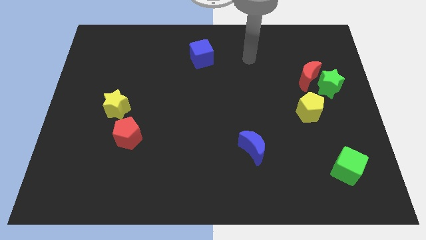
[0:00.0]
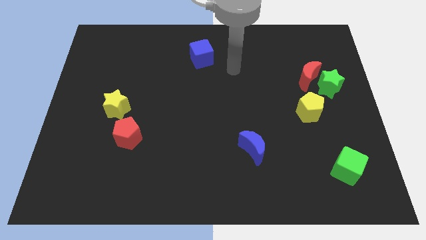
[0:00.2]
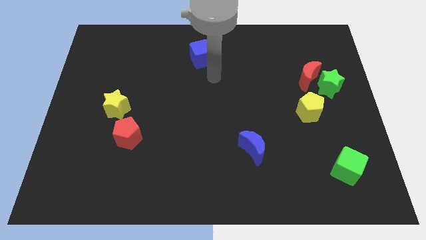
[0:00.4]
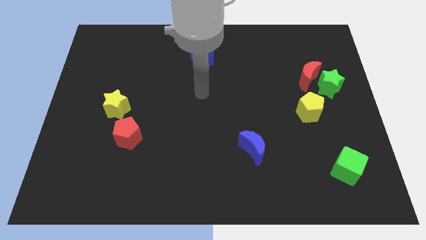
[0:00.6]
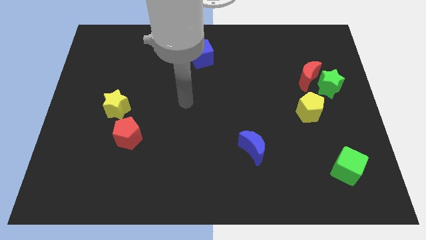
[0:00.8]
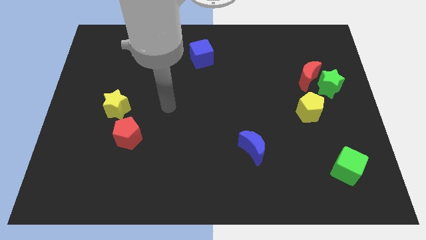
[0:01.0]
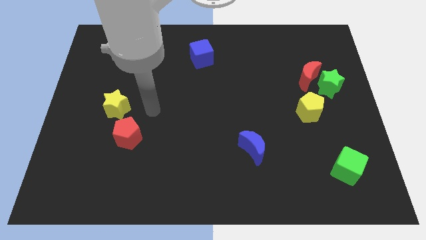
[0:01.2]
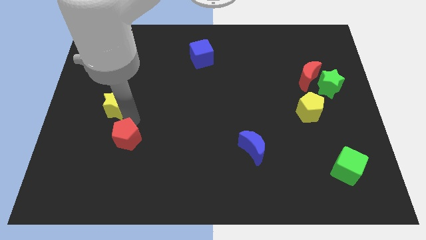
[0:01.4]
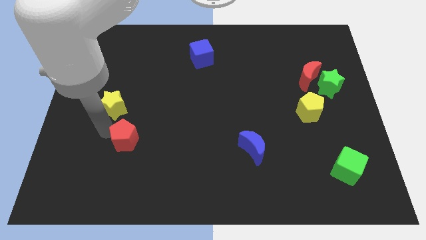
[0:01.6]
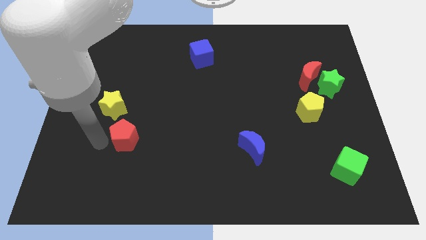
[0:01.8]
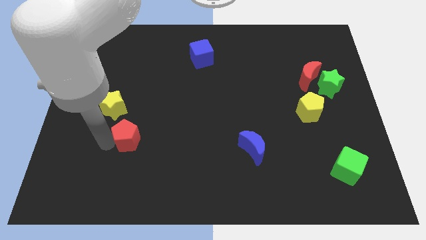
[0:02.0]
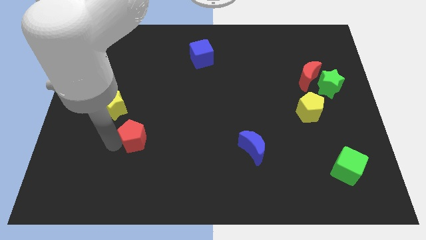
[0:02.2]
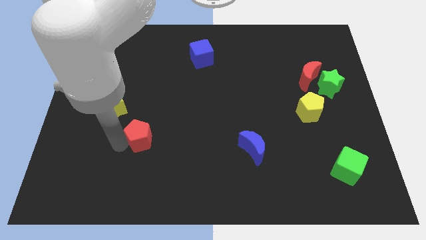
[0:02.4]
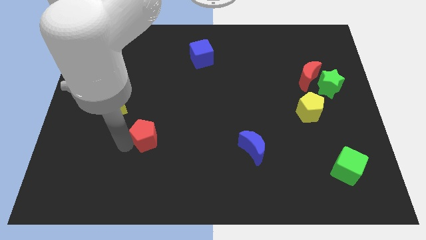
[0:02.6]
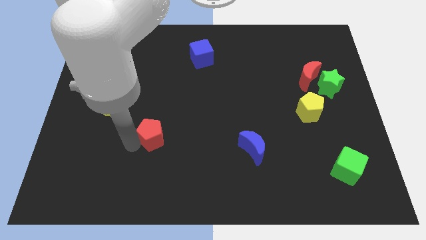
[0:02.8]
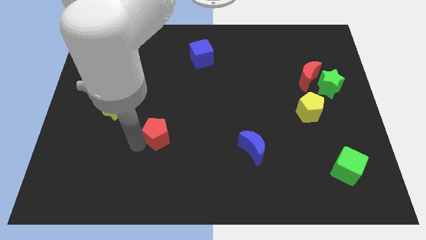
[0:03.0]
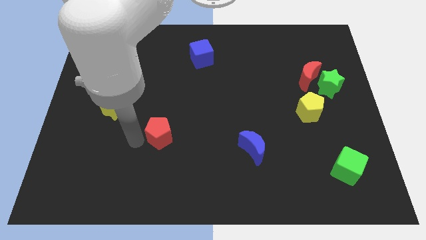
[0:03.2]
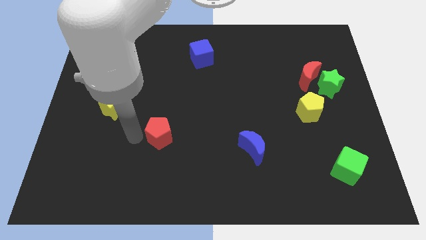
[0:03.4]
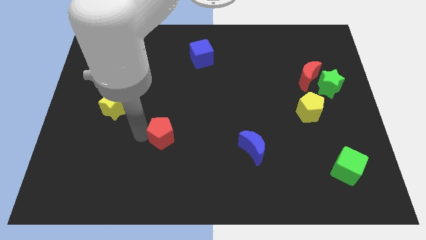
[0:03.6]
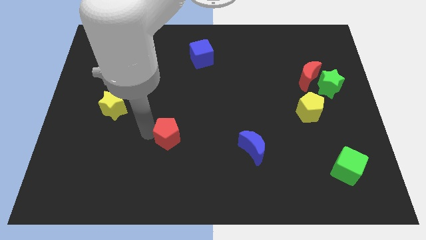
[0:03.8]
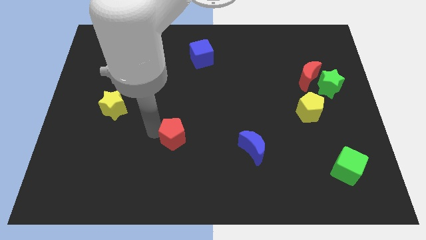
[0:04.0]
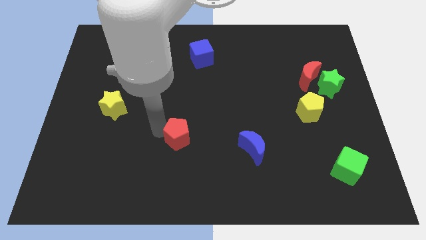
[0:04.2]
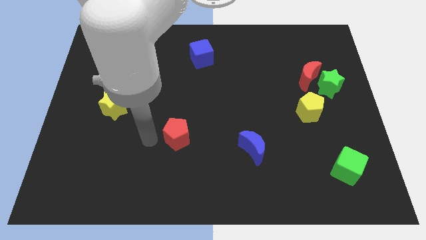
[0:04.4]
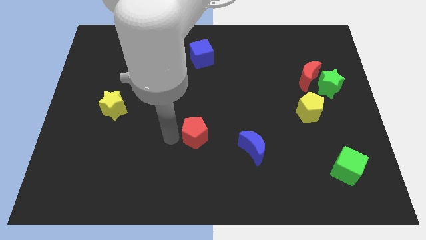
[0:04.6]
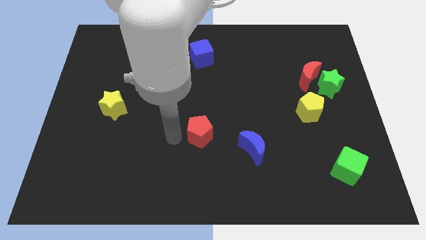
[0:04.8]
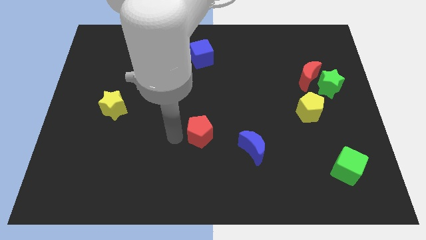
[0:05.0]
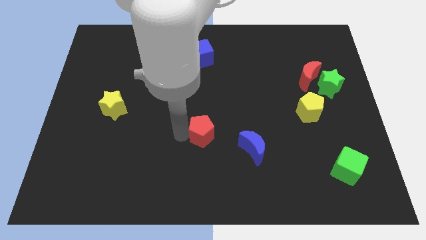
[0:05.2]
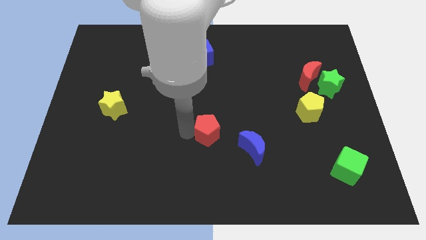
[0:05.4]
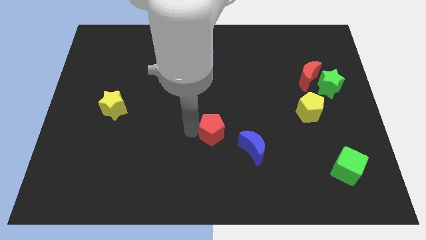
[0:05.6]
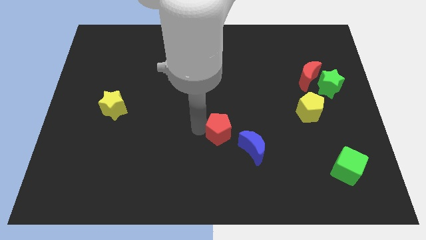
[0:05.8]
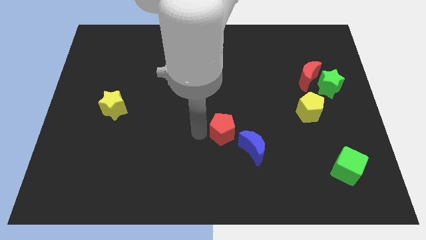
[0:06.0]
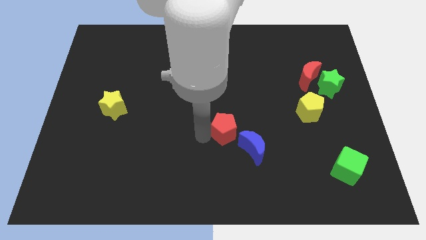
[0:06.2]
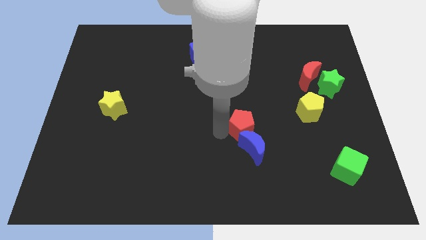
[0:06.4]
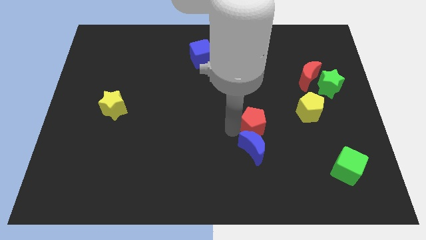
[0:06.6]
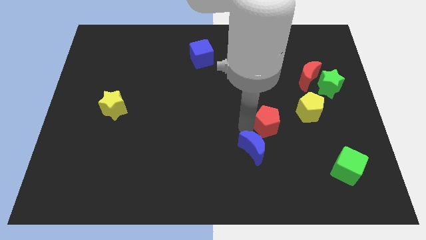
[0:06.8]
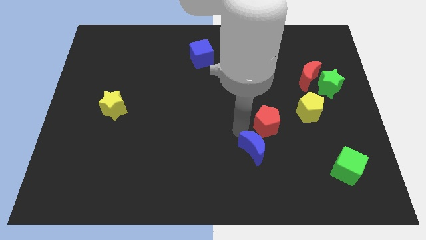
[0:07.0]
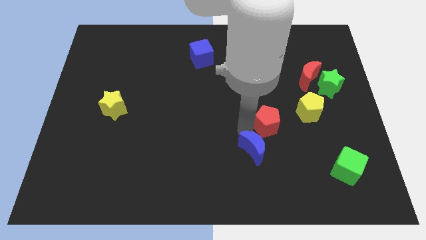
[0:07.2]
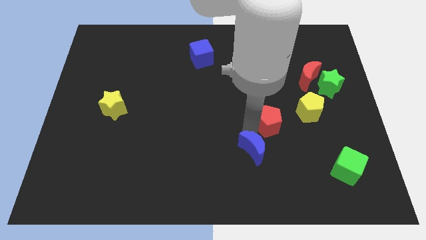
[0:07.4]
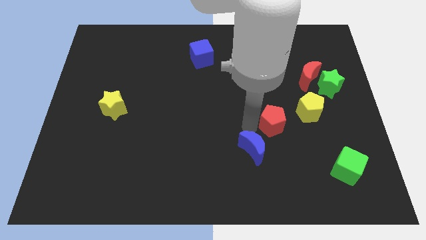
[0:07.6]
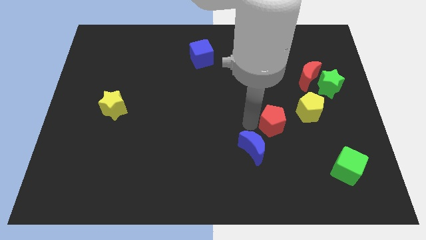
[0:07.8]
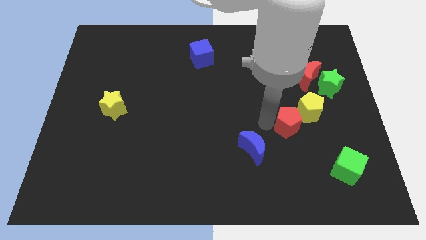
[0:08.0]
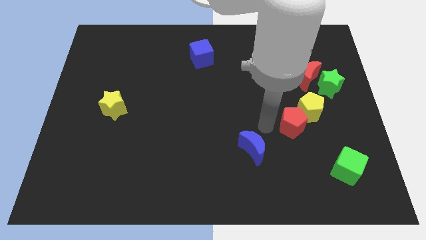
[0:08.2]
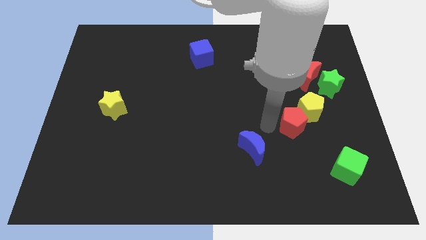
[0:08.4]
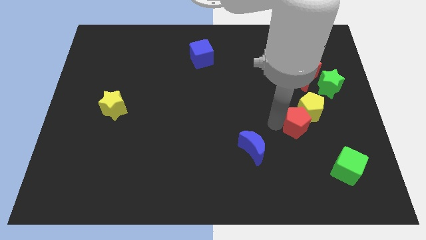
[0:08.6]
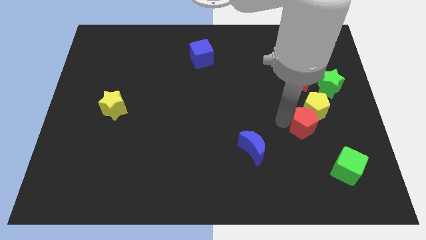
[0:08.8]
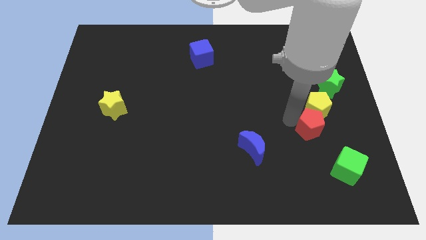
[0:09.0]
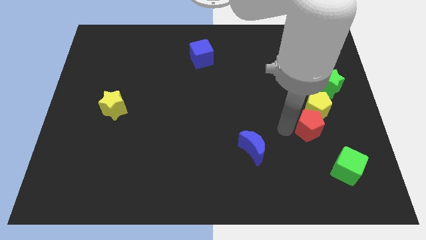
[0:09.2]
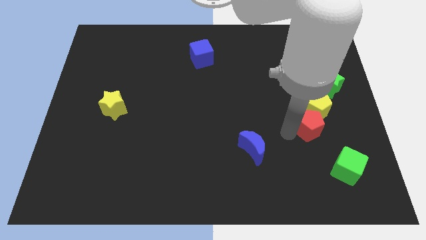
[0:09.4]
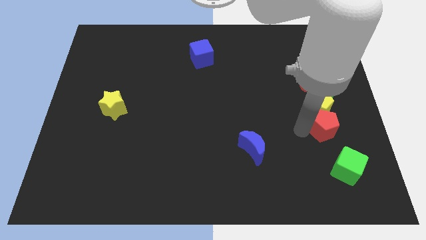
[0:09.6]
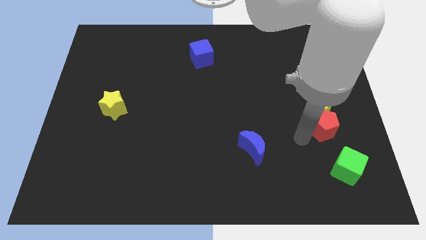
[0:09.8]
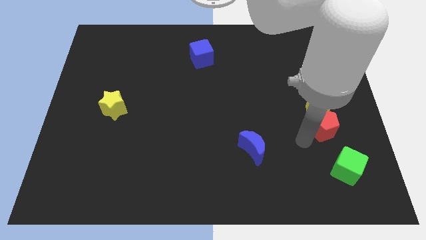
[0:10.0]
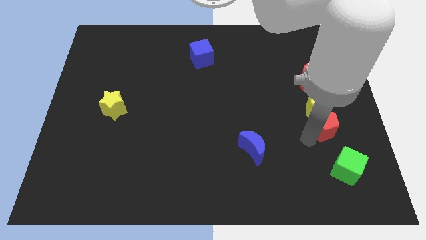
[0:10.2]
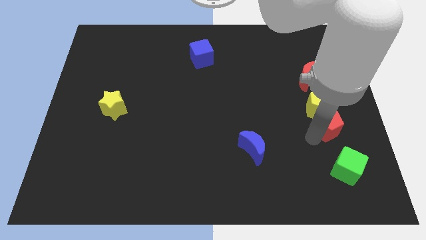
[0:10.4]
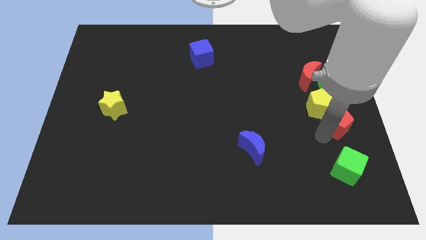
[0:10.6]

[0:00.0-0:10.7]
push the red pentagon to the right side of the board

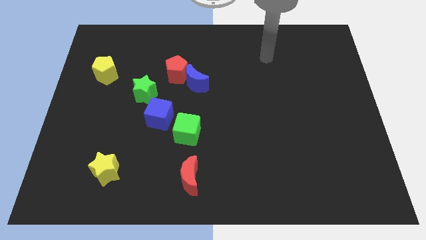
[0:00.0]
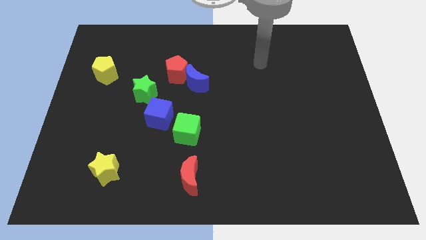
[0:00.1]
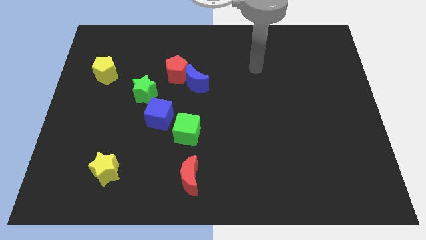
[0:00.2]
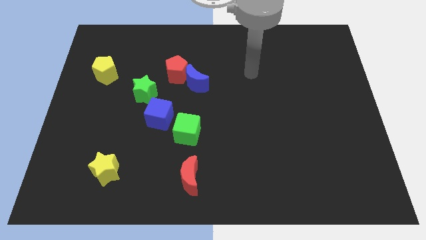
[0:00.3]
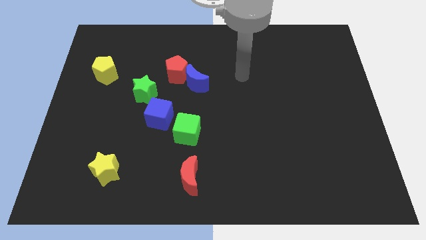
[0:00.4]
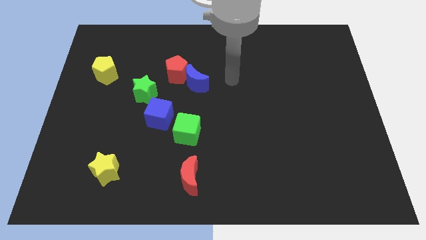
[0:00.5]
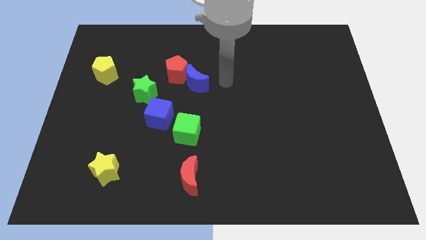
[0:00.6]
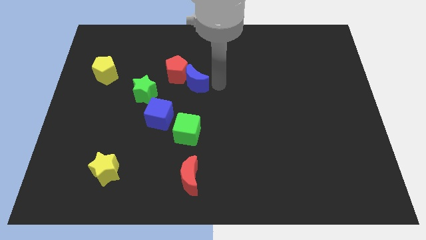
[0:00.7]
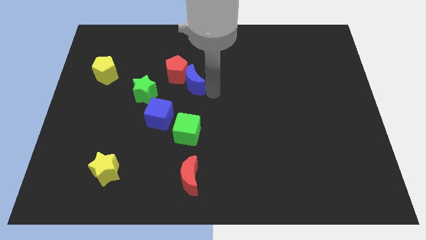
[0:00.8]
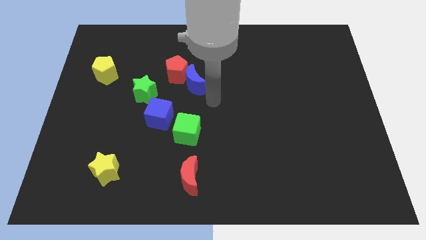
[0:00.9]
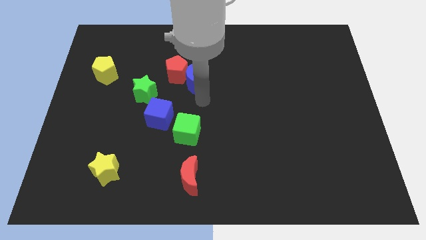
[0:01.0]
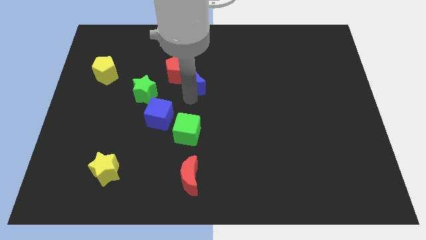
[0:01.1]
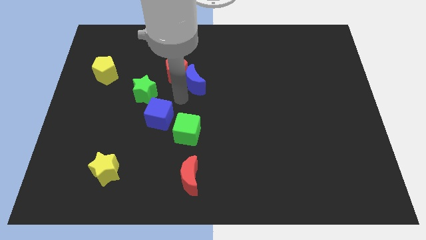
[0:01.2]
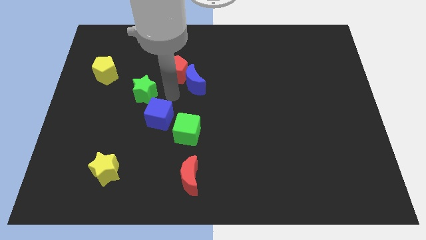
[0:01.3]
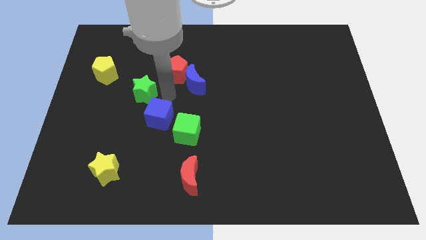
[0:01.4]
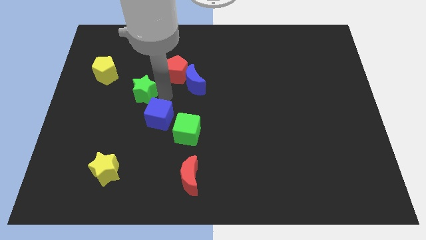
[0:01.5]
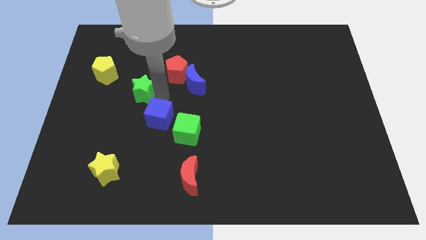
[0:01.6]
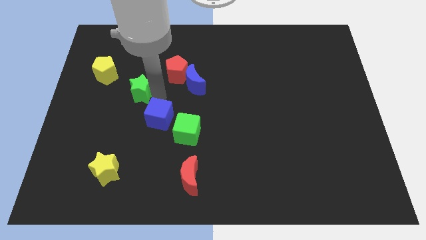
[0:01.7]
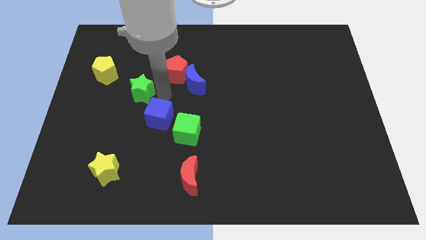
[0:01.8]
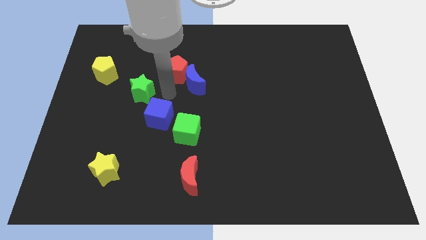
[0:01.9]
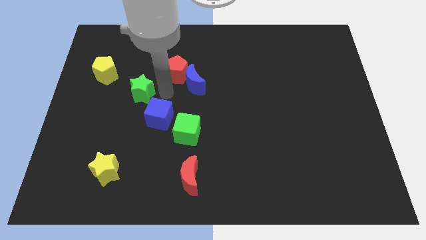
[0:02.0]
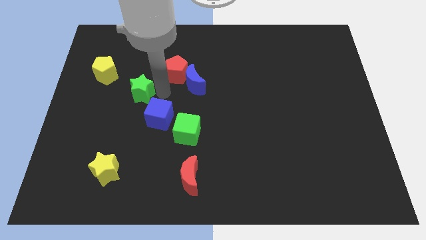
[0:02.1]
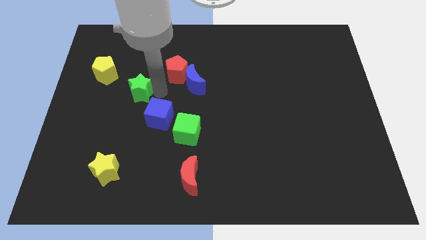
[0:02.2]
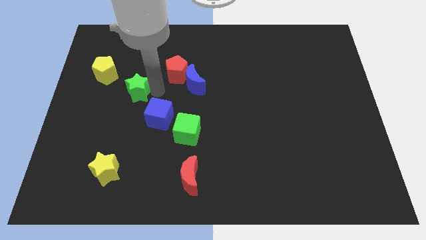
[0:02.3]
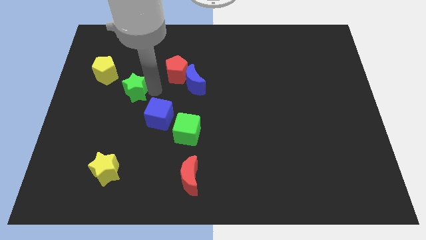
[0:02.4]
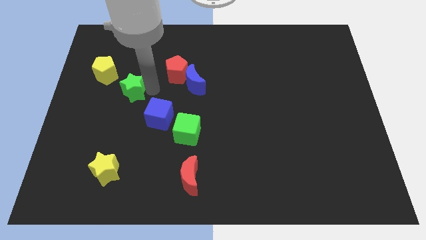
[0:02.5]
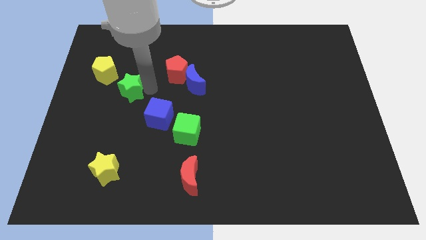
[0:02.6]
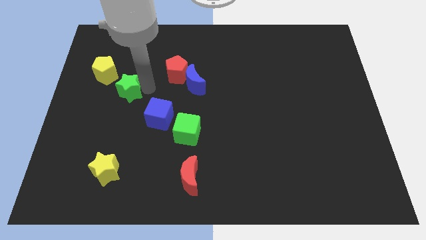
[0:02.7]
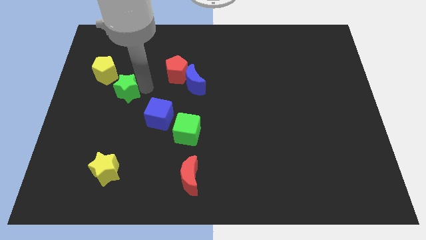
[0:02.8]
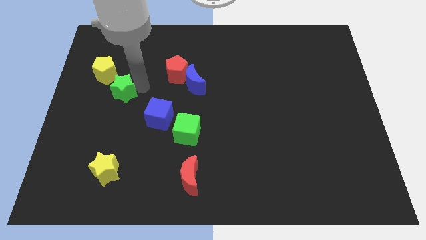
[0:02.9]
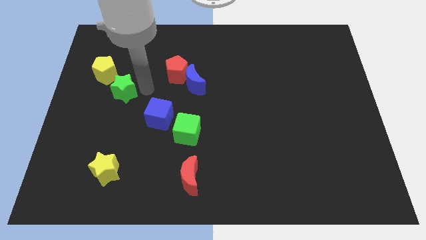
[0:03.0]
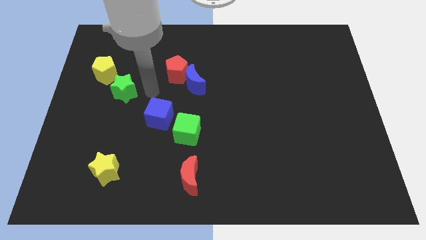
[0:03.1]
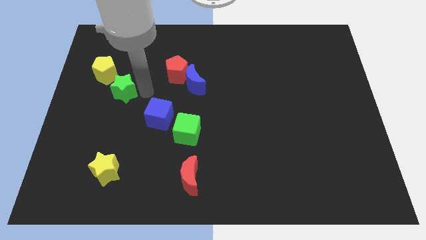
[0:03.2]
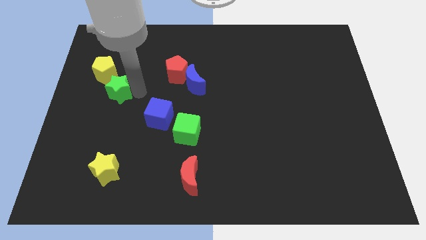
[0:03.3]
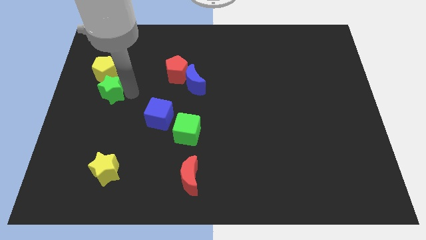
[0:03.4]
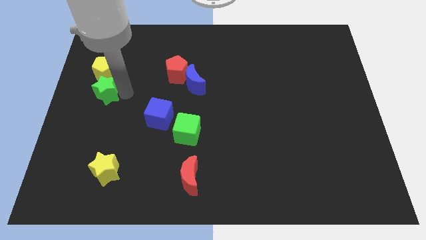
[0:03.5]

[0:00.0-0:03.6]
slide the green star to the left side of the board
